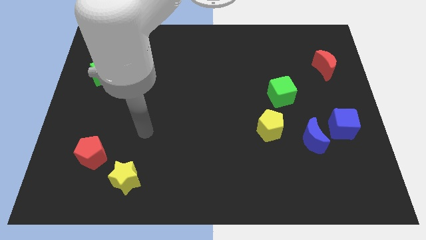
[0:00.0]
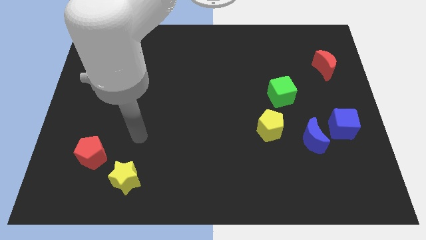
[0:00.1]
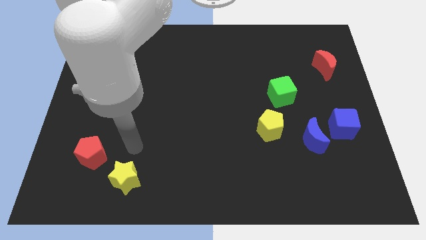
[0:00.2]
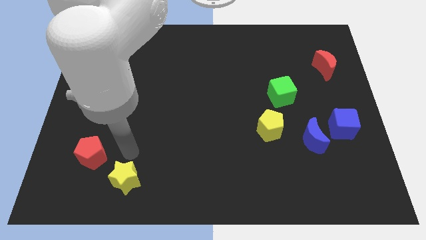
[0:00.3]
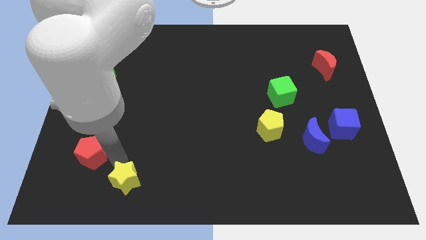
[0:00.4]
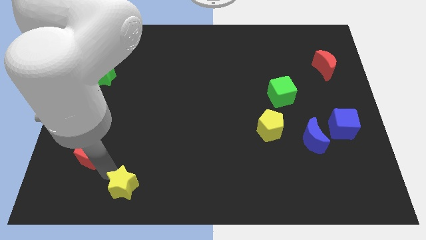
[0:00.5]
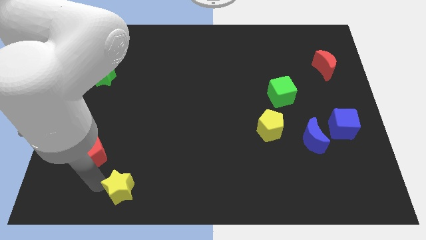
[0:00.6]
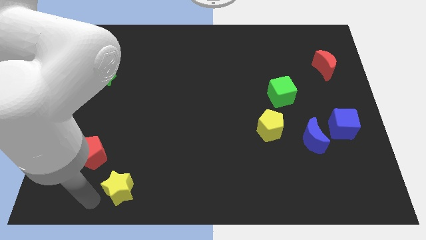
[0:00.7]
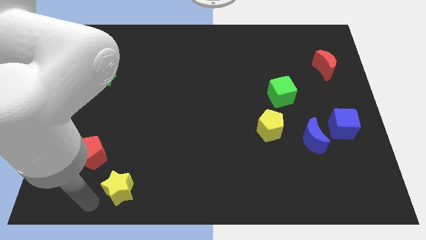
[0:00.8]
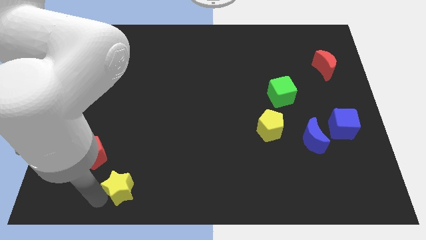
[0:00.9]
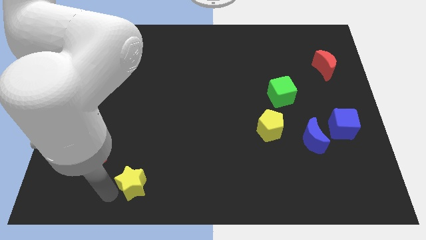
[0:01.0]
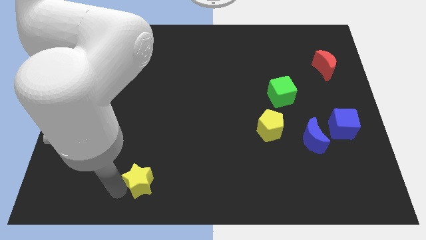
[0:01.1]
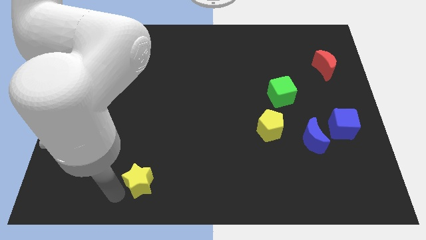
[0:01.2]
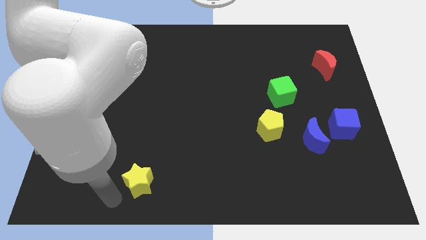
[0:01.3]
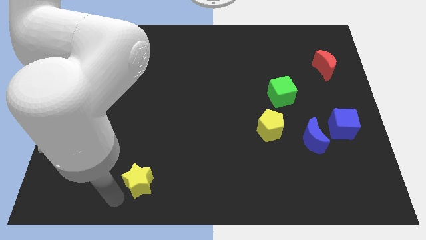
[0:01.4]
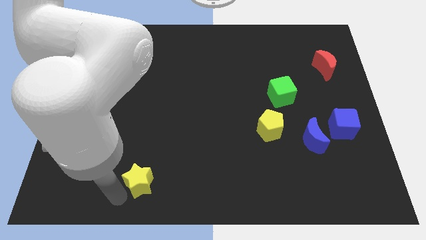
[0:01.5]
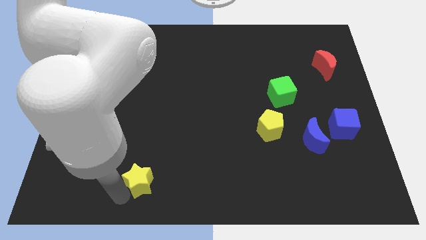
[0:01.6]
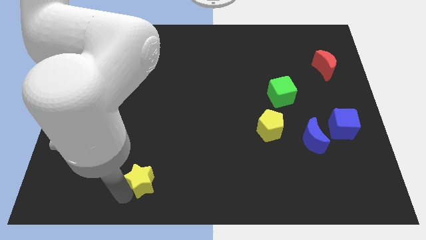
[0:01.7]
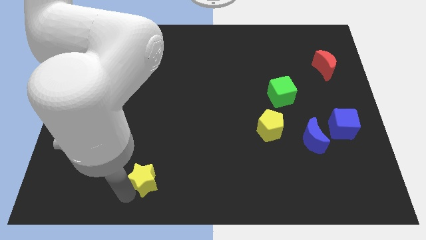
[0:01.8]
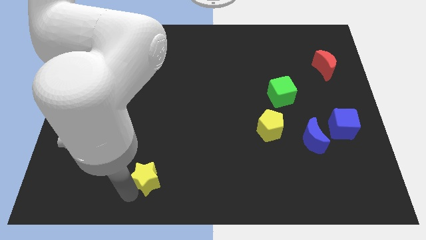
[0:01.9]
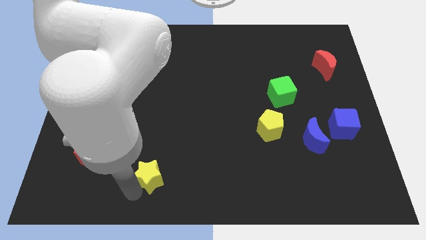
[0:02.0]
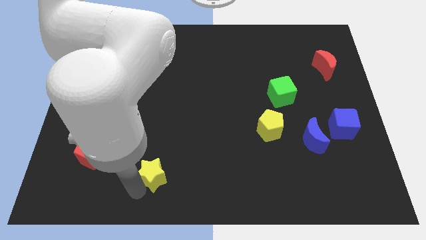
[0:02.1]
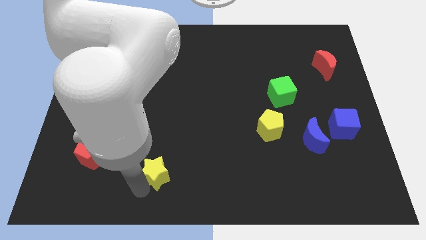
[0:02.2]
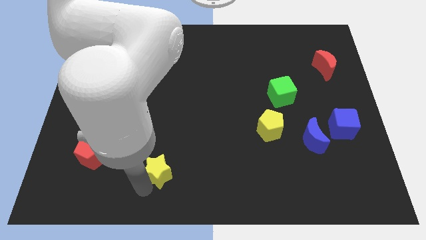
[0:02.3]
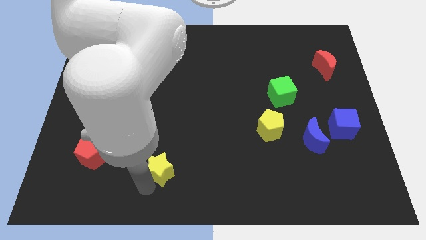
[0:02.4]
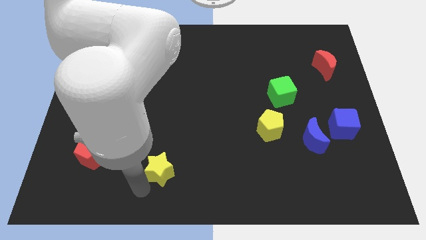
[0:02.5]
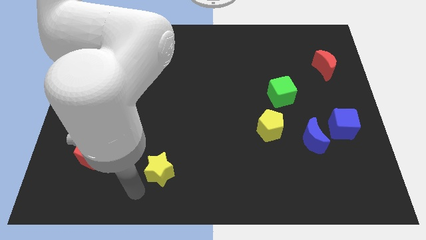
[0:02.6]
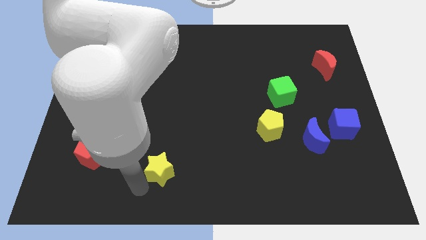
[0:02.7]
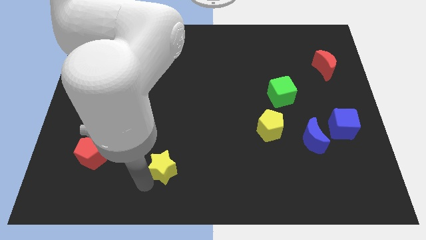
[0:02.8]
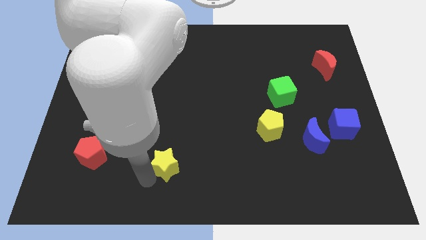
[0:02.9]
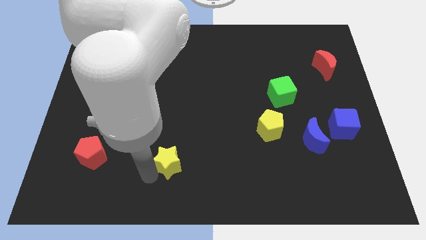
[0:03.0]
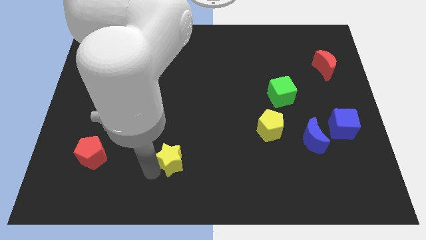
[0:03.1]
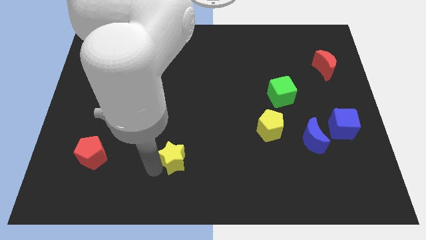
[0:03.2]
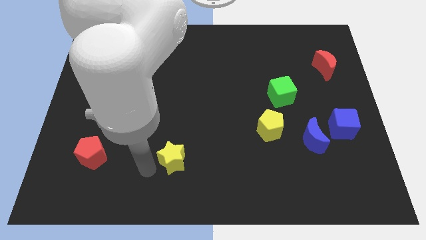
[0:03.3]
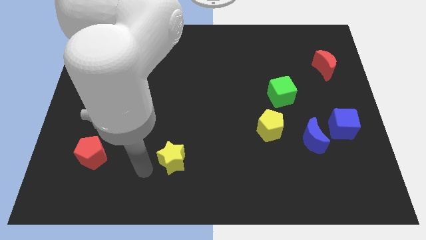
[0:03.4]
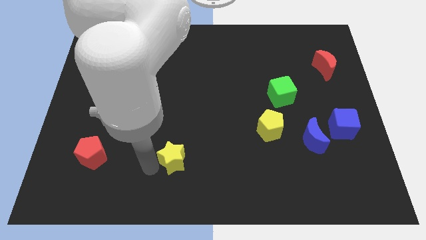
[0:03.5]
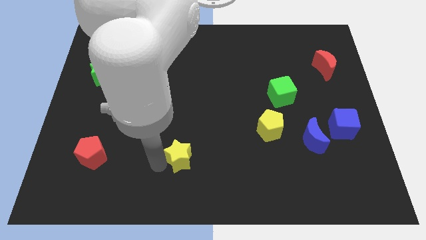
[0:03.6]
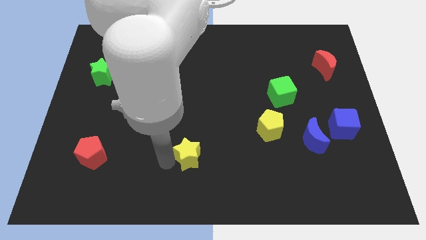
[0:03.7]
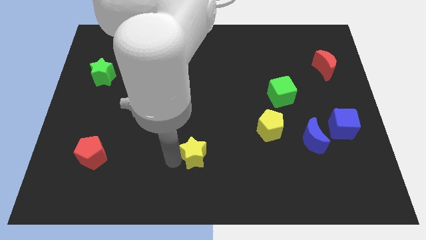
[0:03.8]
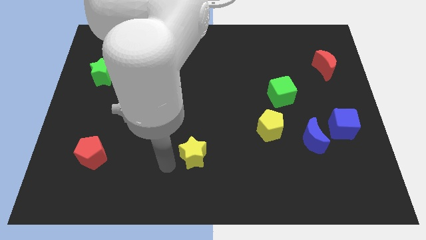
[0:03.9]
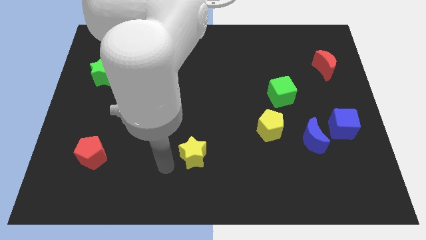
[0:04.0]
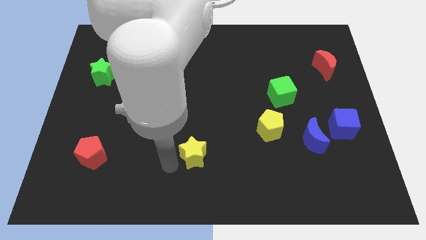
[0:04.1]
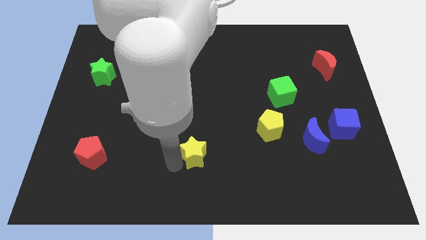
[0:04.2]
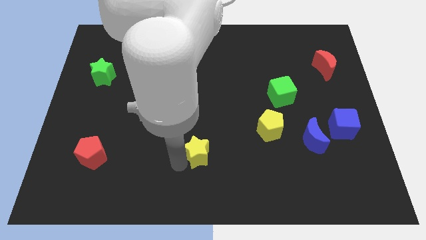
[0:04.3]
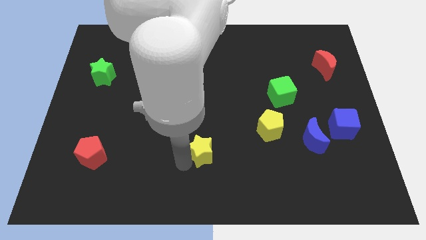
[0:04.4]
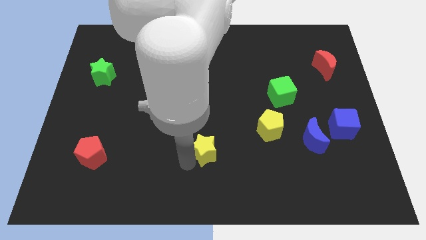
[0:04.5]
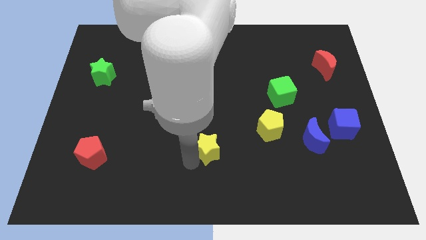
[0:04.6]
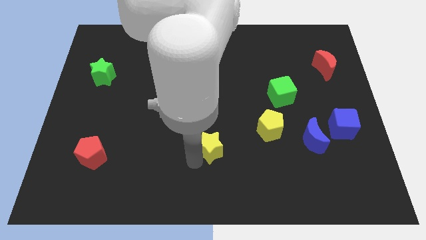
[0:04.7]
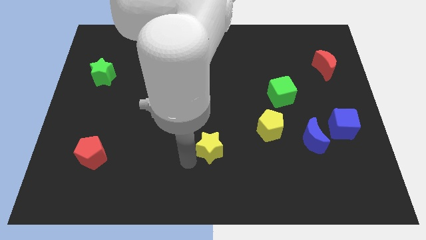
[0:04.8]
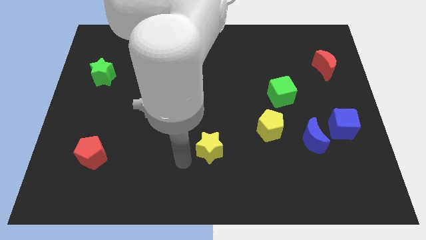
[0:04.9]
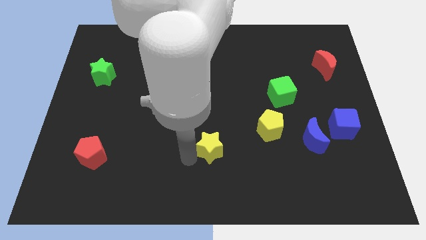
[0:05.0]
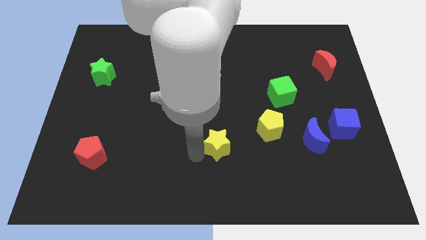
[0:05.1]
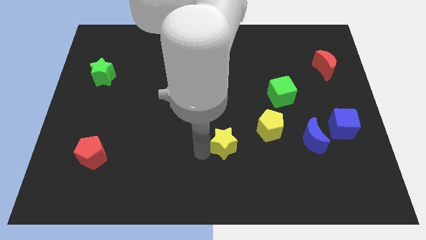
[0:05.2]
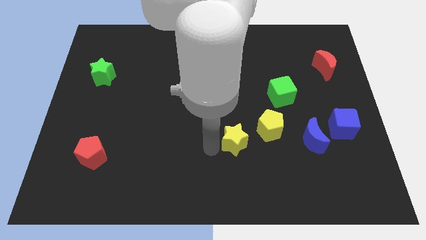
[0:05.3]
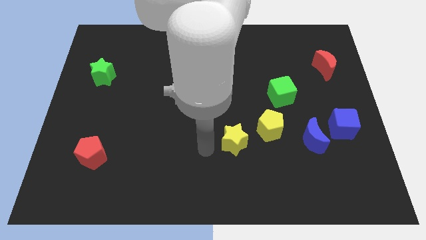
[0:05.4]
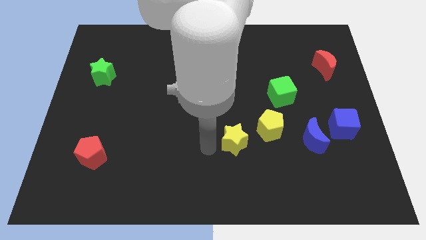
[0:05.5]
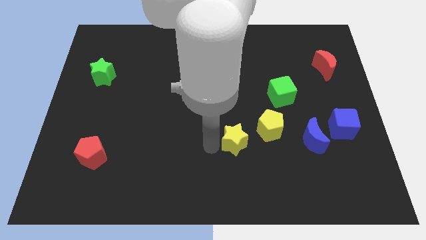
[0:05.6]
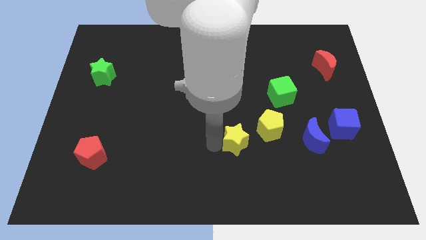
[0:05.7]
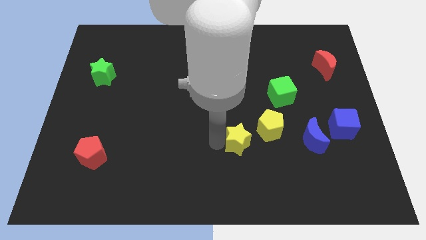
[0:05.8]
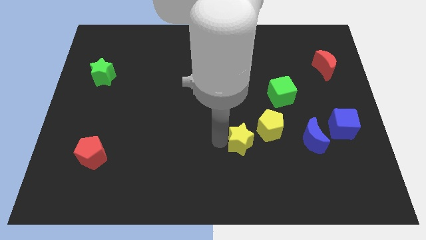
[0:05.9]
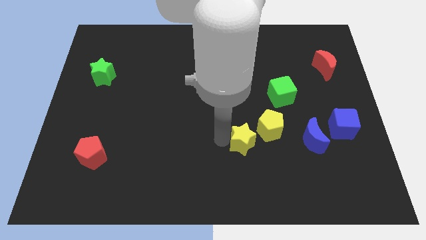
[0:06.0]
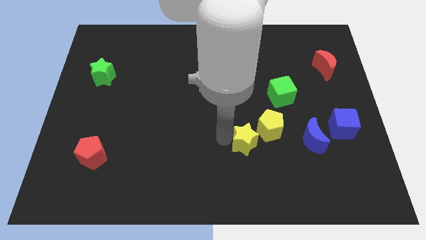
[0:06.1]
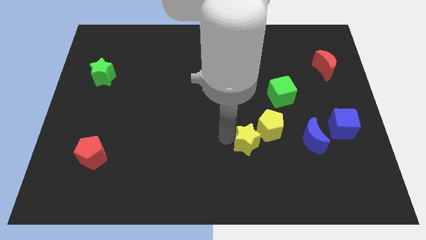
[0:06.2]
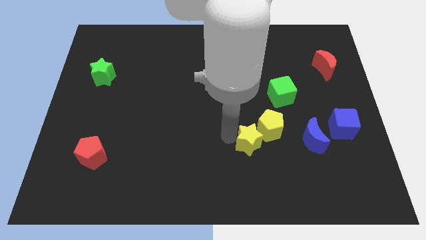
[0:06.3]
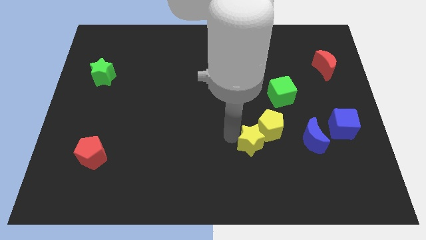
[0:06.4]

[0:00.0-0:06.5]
slide the yellow star close to the yellow pentagon

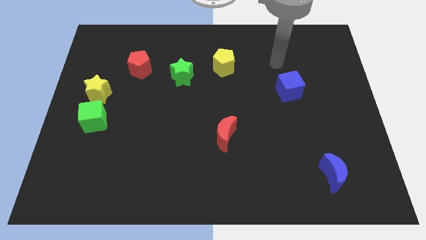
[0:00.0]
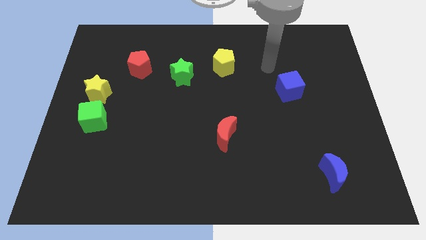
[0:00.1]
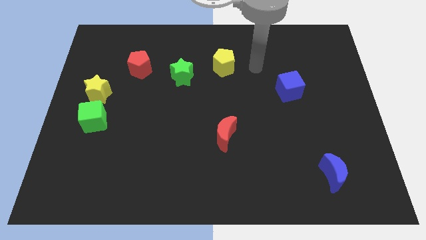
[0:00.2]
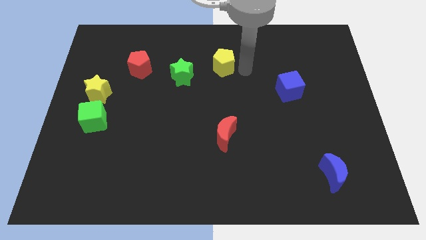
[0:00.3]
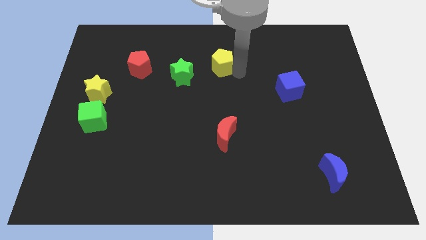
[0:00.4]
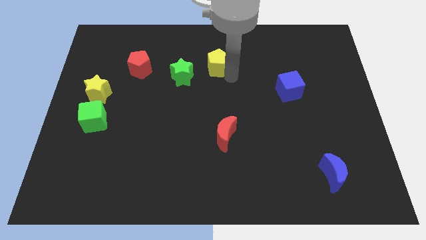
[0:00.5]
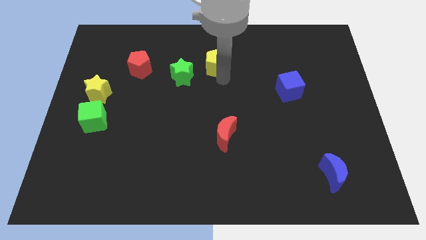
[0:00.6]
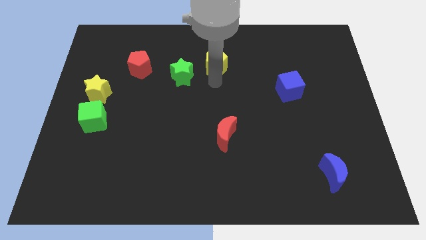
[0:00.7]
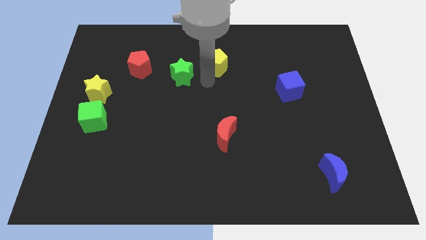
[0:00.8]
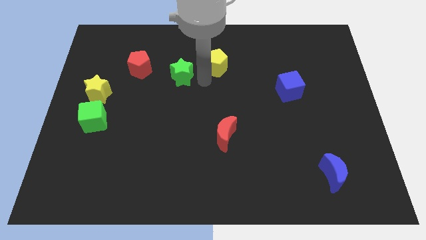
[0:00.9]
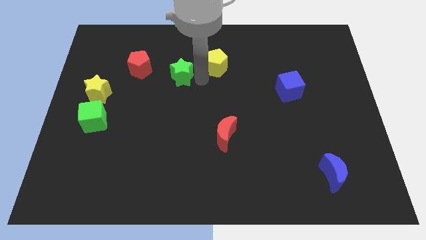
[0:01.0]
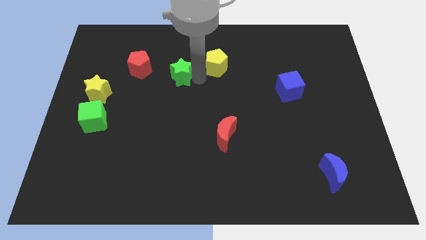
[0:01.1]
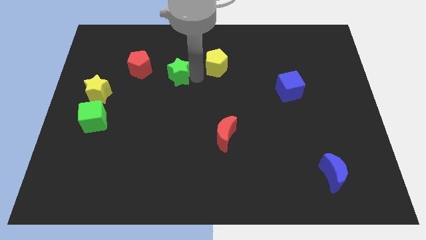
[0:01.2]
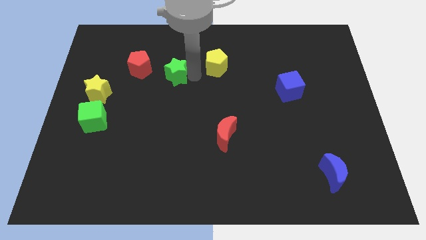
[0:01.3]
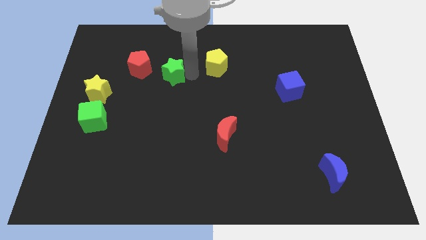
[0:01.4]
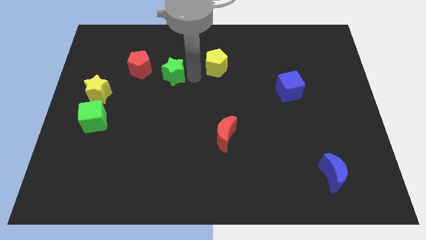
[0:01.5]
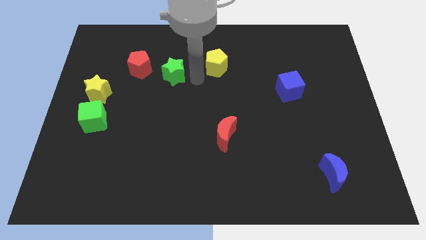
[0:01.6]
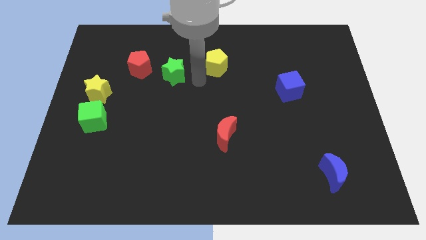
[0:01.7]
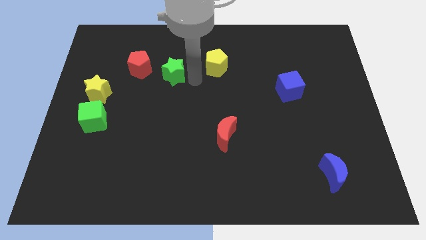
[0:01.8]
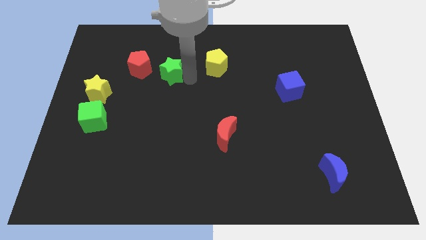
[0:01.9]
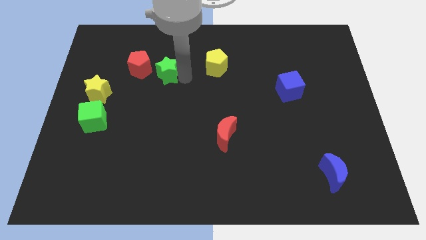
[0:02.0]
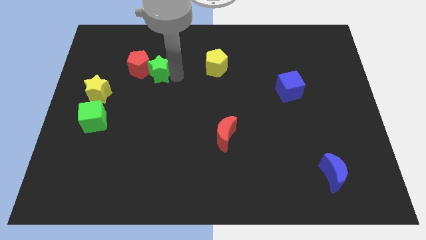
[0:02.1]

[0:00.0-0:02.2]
move the green star to the red pentagon
